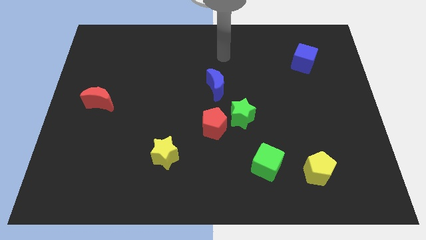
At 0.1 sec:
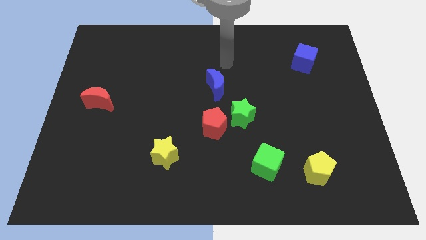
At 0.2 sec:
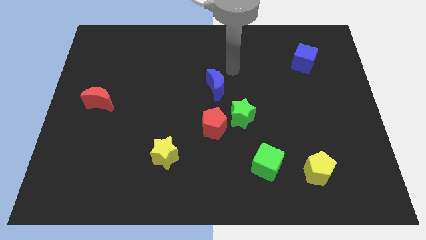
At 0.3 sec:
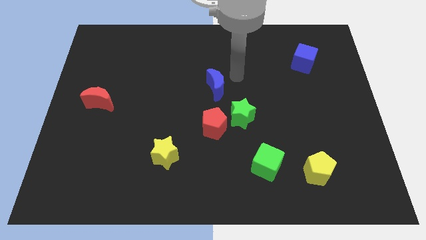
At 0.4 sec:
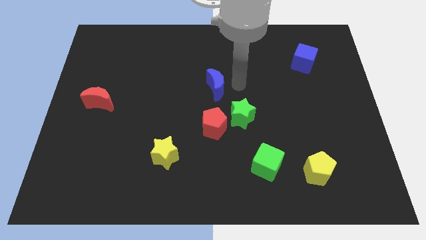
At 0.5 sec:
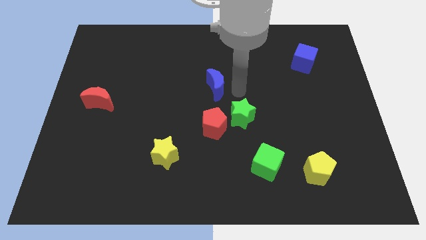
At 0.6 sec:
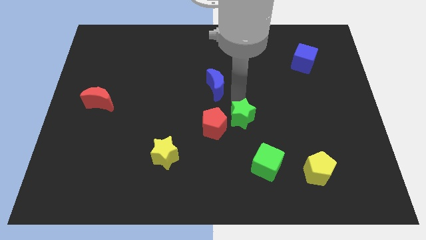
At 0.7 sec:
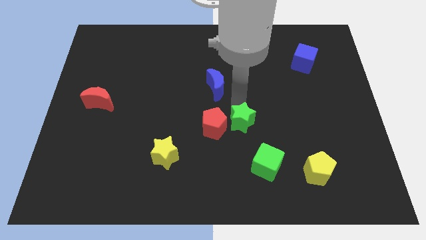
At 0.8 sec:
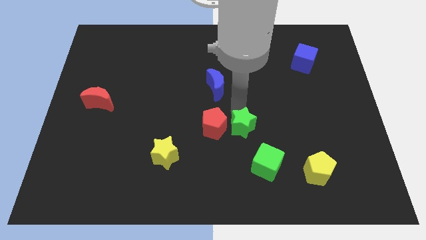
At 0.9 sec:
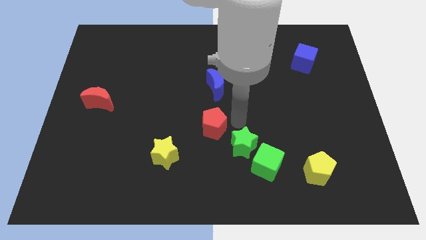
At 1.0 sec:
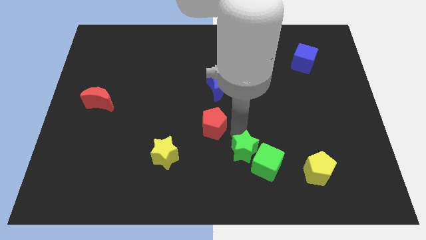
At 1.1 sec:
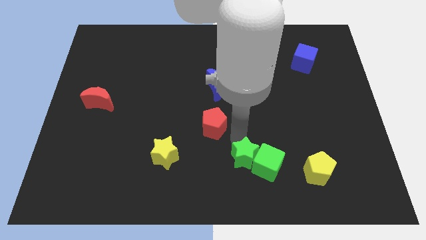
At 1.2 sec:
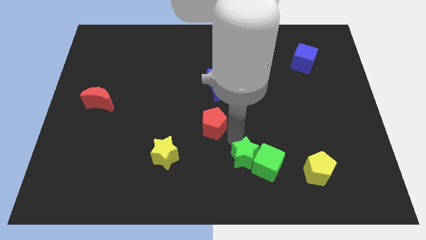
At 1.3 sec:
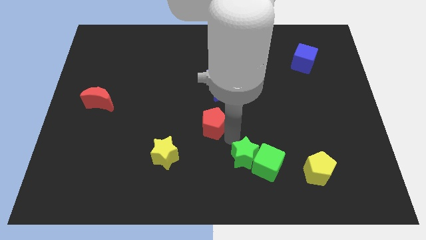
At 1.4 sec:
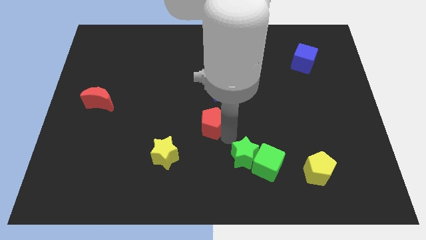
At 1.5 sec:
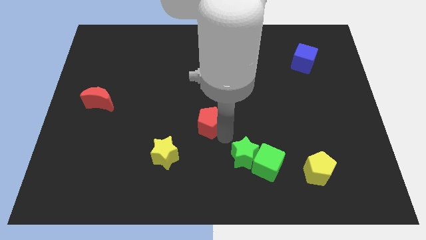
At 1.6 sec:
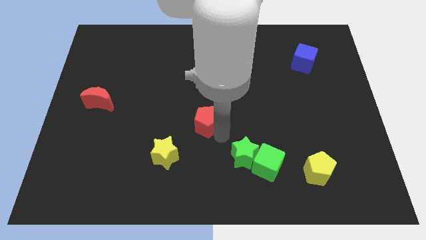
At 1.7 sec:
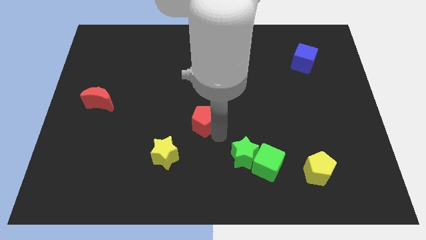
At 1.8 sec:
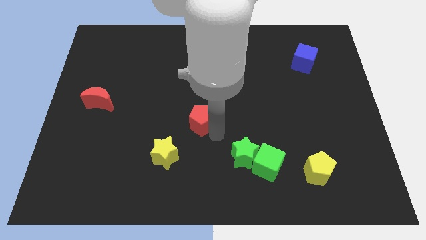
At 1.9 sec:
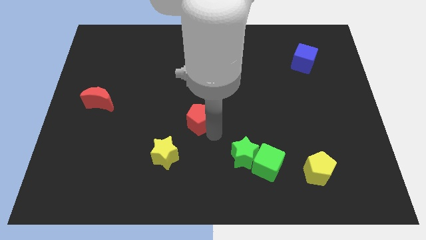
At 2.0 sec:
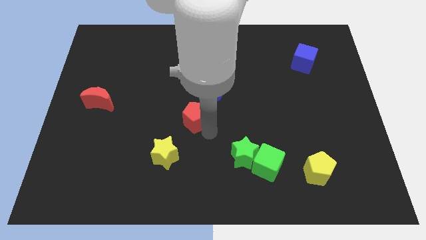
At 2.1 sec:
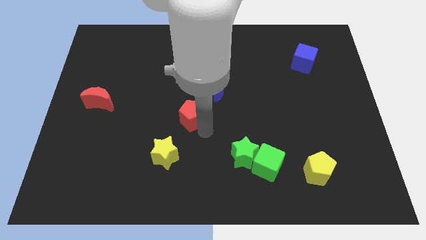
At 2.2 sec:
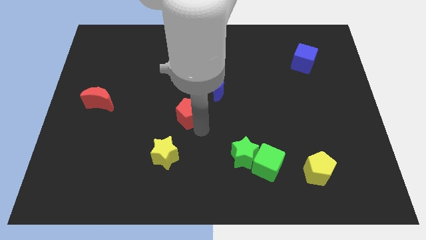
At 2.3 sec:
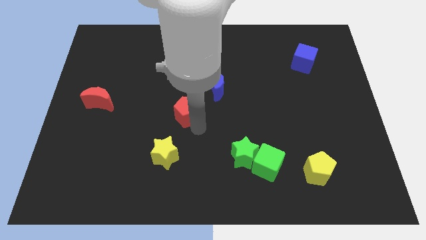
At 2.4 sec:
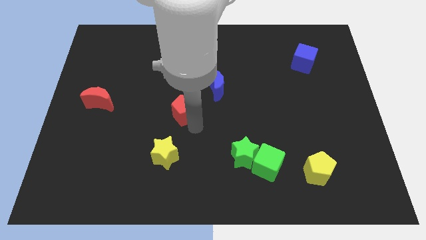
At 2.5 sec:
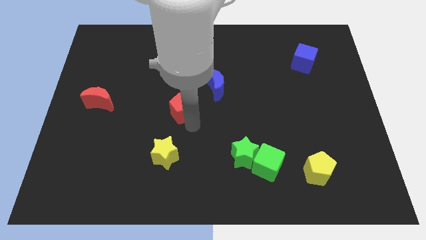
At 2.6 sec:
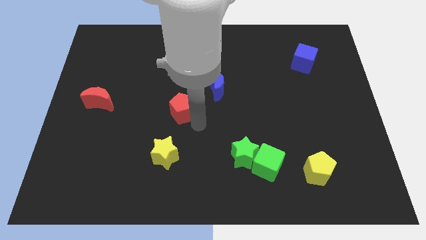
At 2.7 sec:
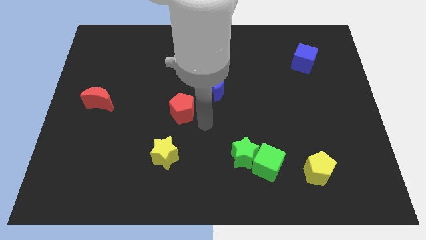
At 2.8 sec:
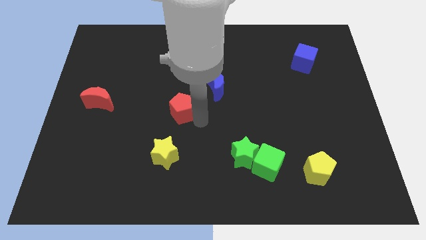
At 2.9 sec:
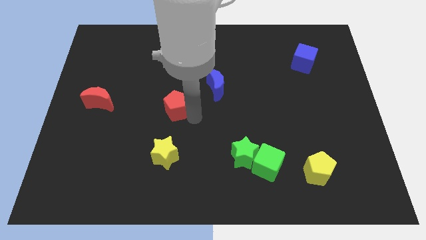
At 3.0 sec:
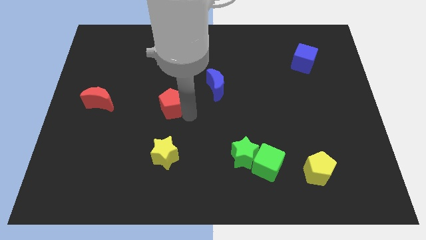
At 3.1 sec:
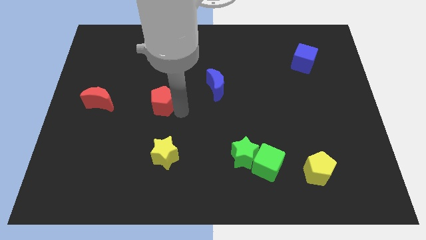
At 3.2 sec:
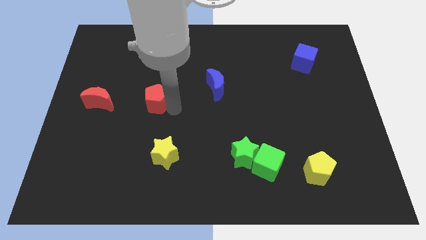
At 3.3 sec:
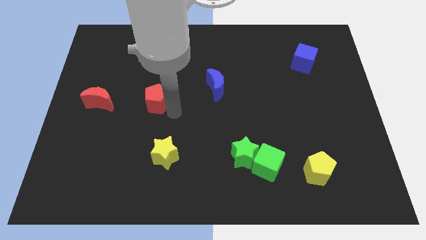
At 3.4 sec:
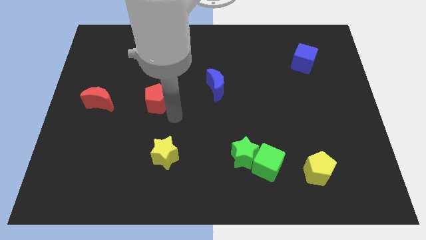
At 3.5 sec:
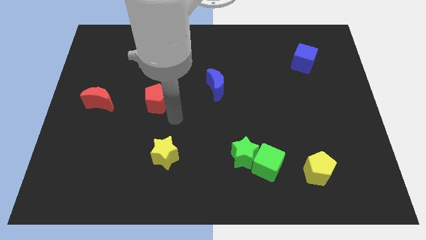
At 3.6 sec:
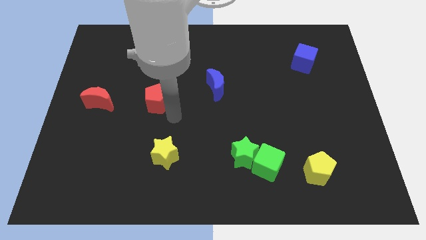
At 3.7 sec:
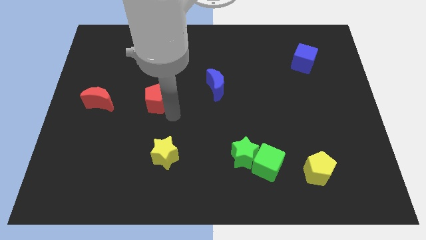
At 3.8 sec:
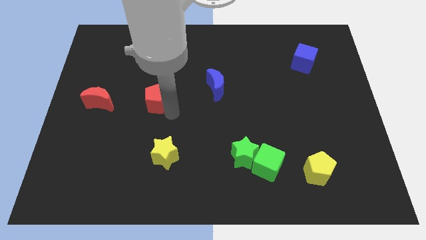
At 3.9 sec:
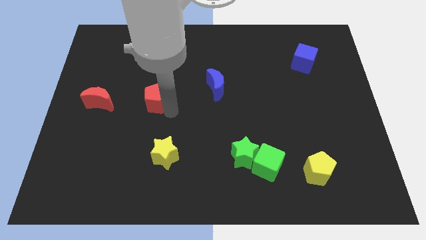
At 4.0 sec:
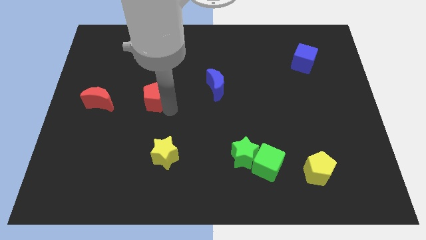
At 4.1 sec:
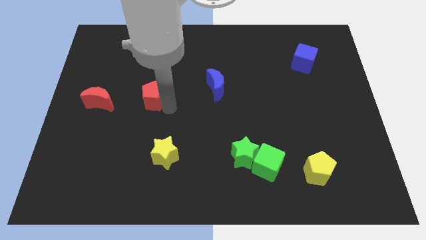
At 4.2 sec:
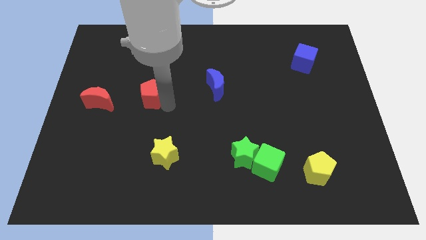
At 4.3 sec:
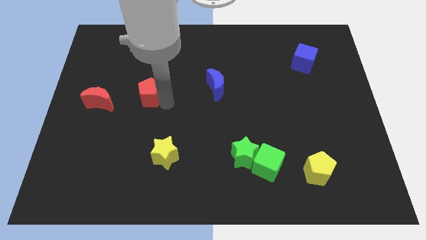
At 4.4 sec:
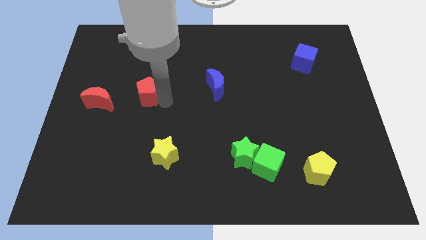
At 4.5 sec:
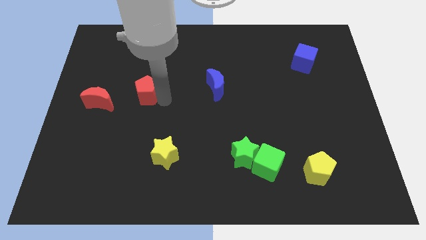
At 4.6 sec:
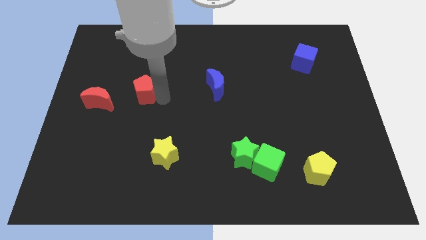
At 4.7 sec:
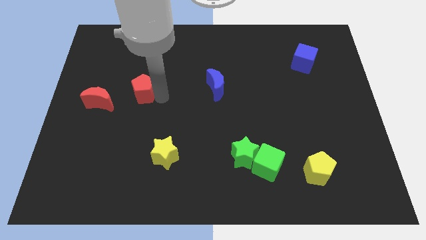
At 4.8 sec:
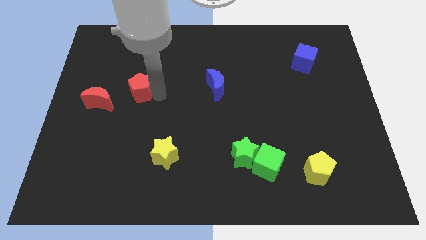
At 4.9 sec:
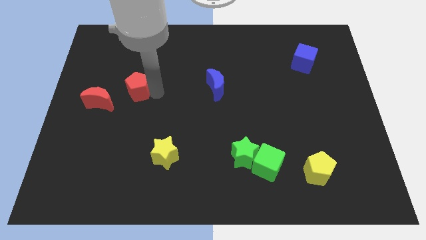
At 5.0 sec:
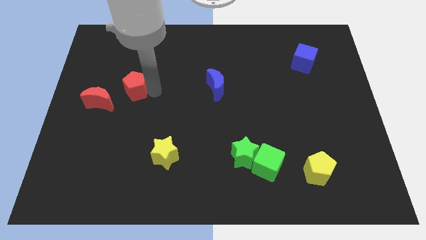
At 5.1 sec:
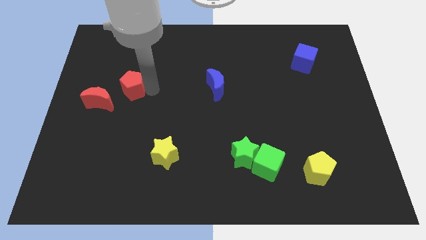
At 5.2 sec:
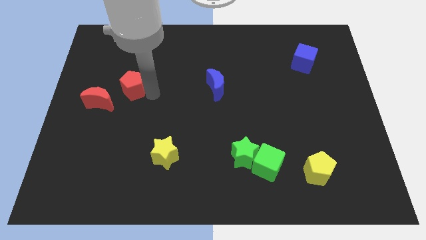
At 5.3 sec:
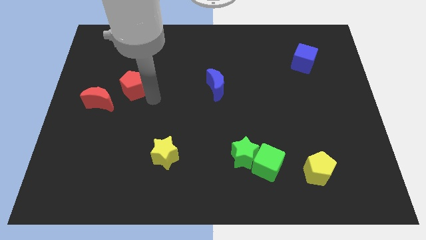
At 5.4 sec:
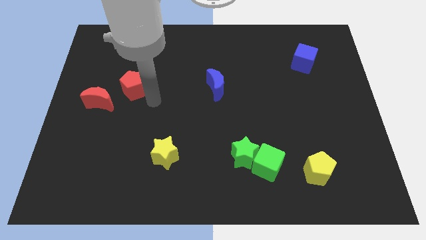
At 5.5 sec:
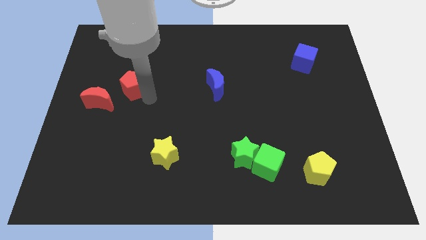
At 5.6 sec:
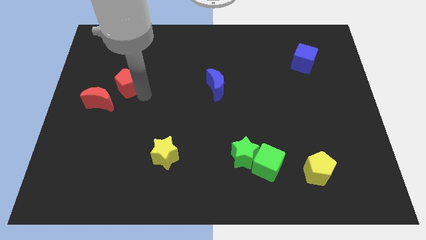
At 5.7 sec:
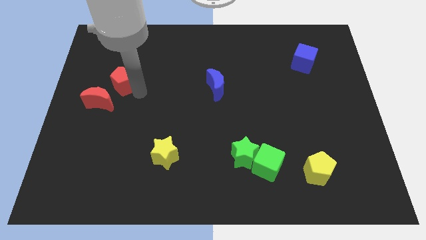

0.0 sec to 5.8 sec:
move the red pentagon to the top of the red moon
